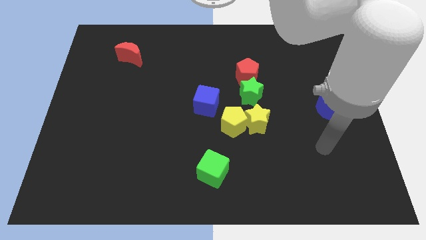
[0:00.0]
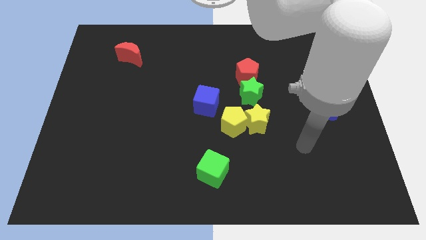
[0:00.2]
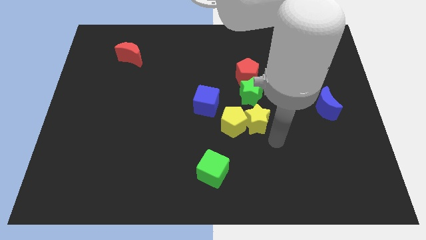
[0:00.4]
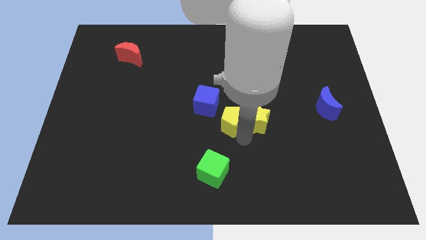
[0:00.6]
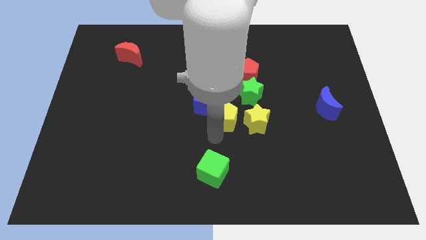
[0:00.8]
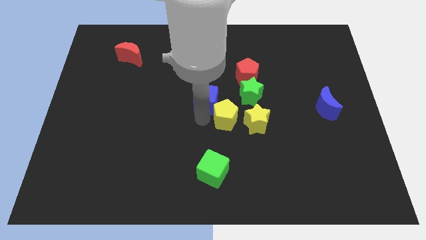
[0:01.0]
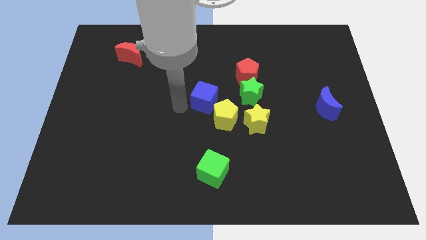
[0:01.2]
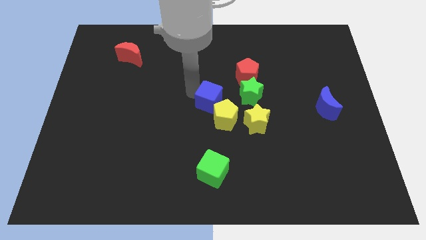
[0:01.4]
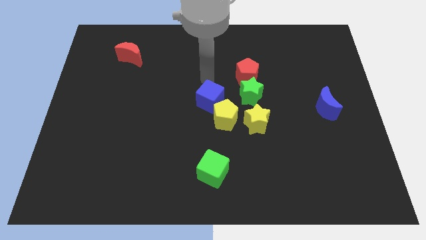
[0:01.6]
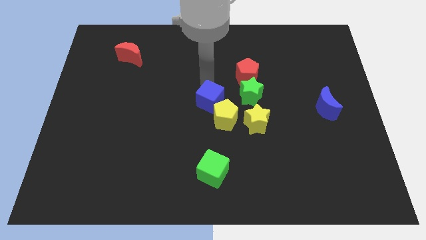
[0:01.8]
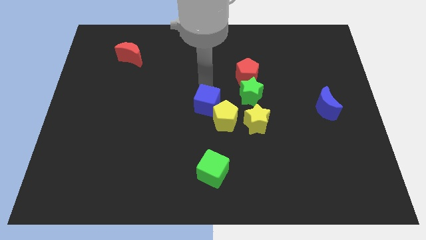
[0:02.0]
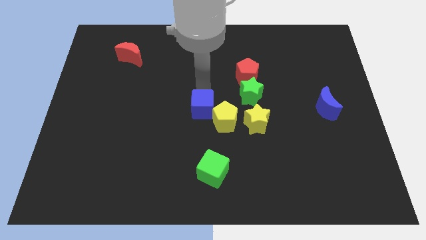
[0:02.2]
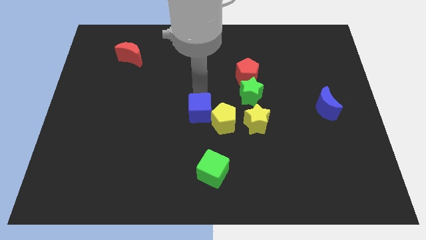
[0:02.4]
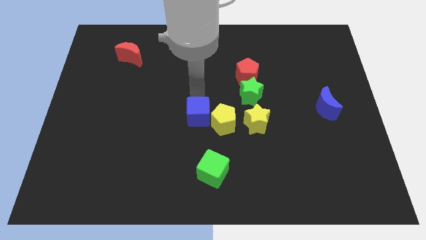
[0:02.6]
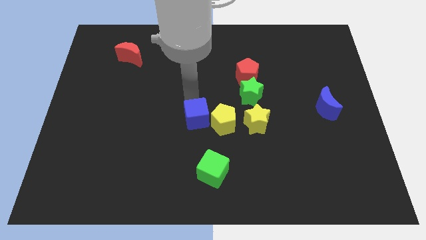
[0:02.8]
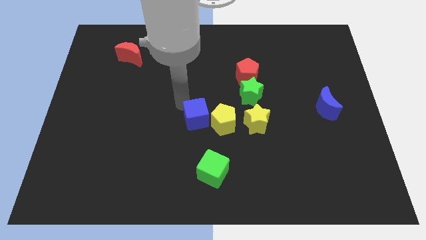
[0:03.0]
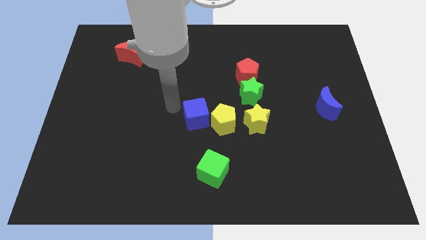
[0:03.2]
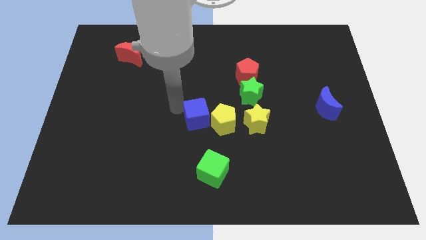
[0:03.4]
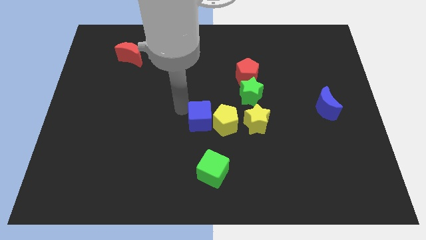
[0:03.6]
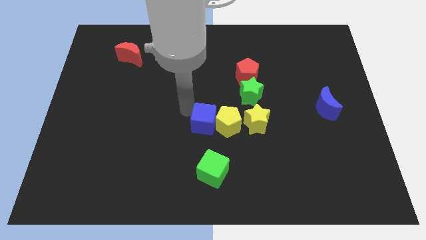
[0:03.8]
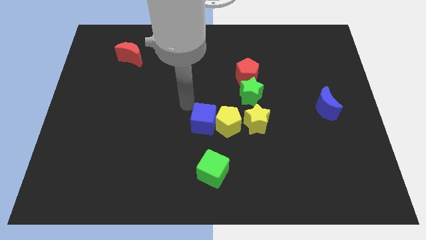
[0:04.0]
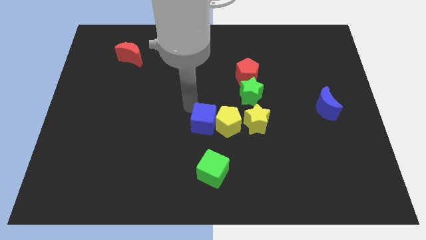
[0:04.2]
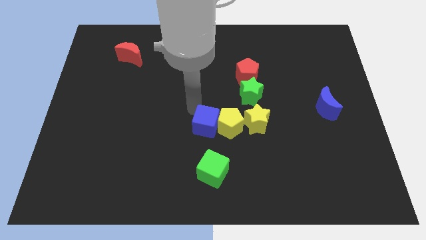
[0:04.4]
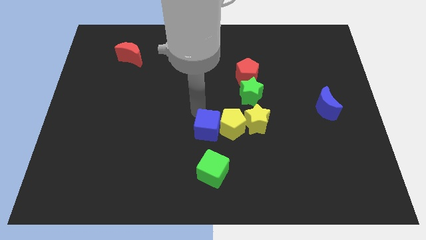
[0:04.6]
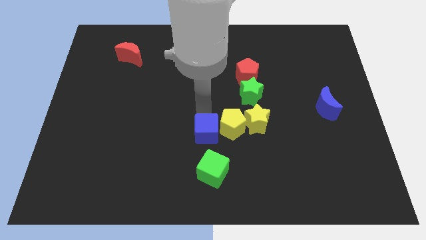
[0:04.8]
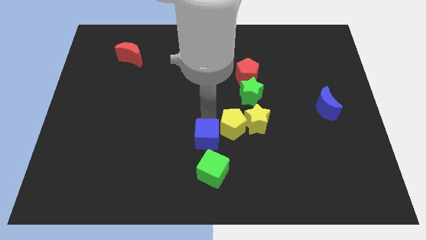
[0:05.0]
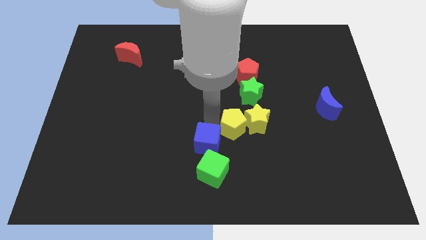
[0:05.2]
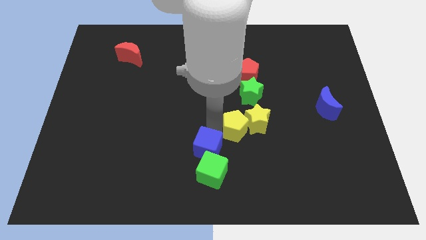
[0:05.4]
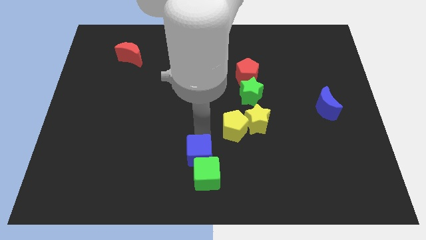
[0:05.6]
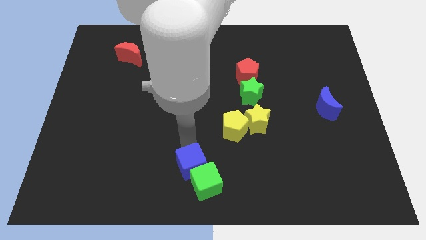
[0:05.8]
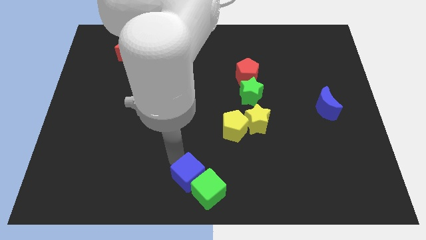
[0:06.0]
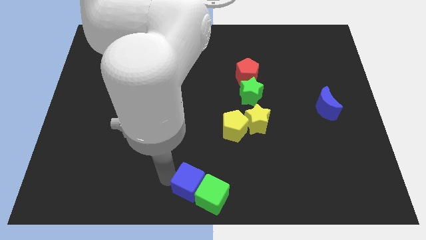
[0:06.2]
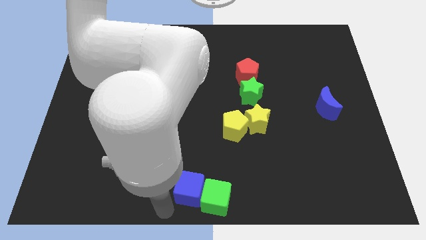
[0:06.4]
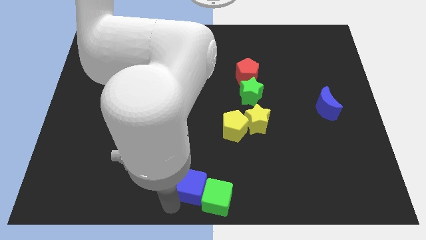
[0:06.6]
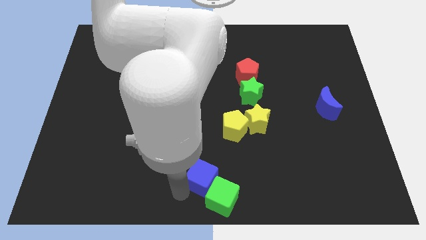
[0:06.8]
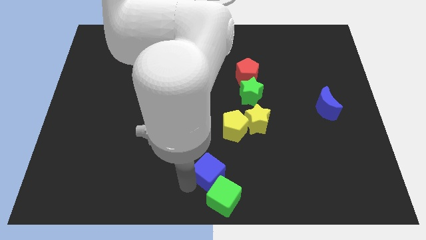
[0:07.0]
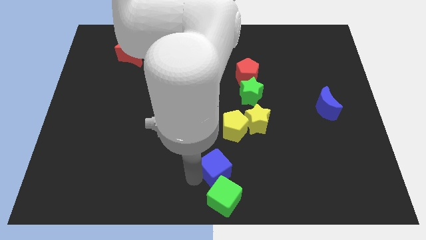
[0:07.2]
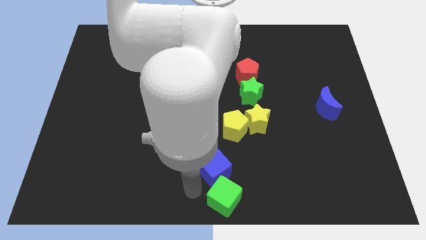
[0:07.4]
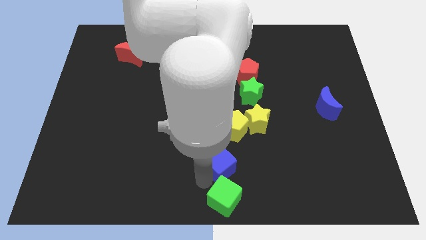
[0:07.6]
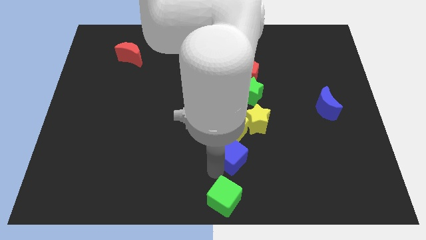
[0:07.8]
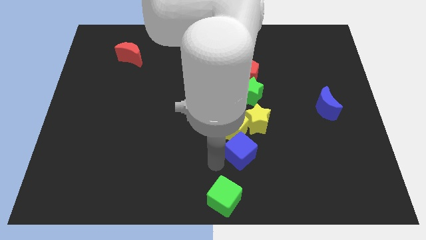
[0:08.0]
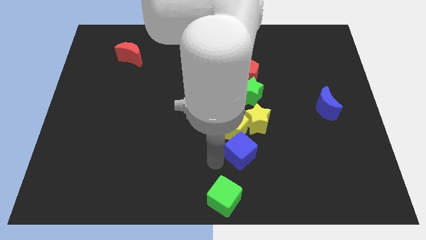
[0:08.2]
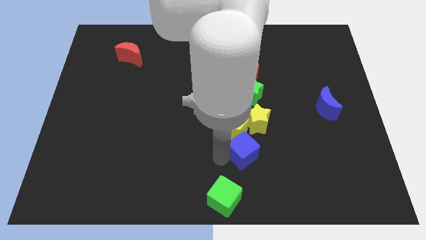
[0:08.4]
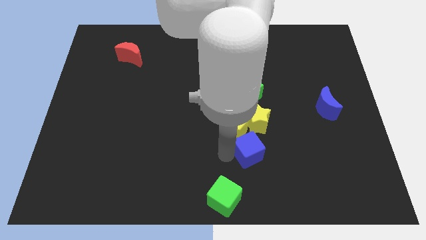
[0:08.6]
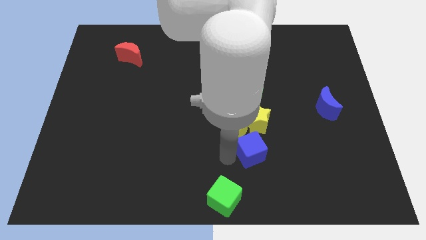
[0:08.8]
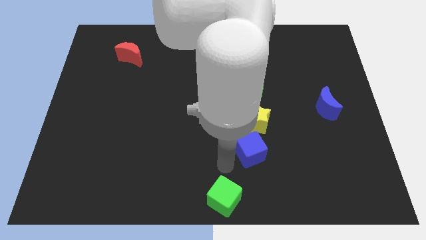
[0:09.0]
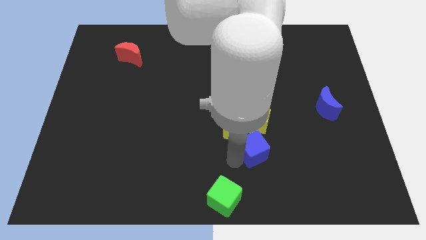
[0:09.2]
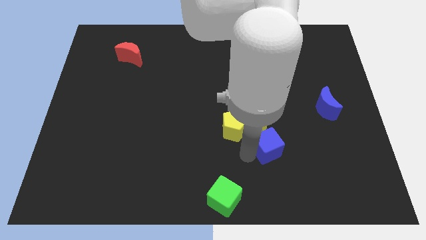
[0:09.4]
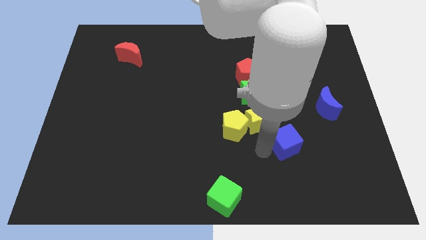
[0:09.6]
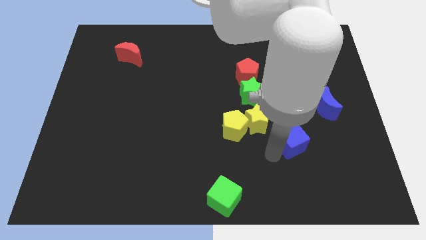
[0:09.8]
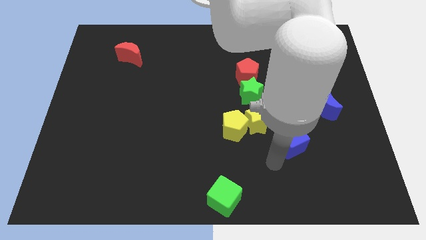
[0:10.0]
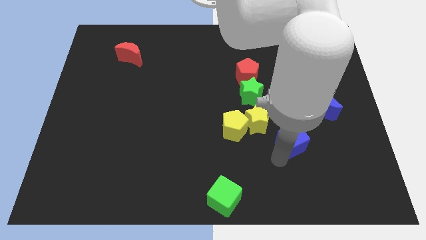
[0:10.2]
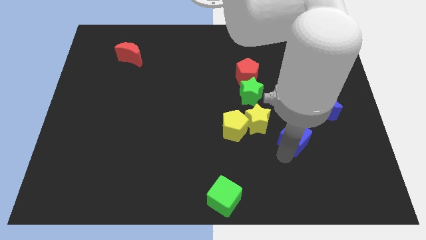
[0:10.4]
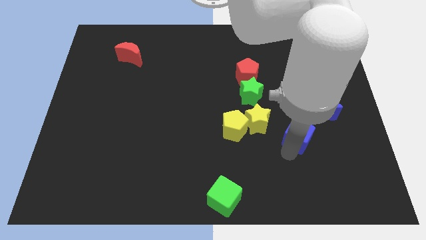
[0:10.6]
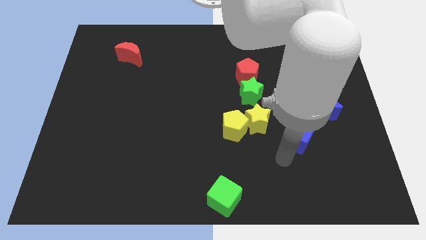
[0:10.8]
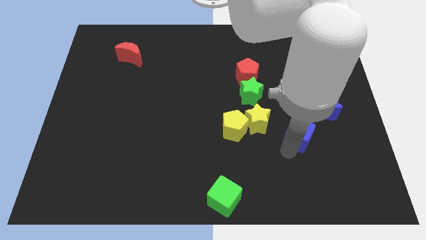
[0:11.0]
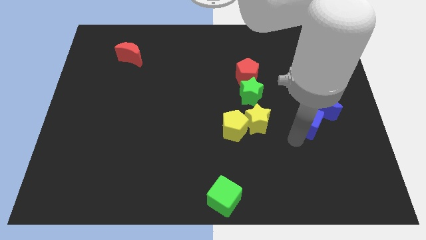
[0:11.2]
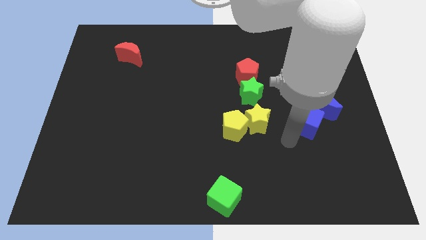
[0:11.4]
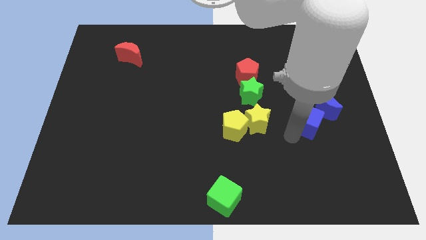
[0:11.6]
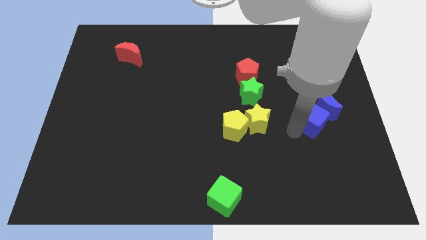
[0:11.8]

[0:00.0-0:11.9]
move the blue cube close to the blue moon

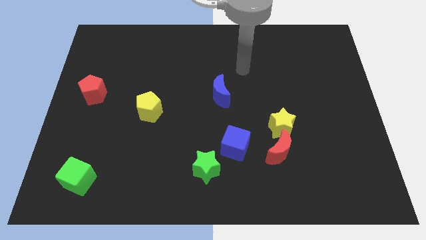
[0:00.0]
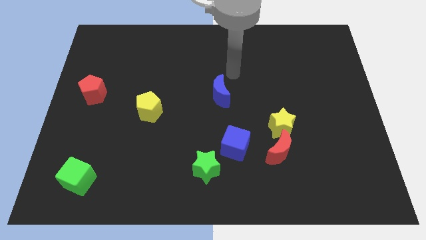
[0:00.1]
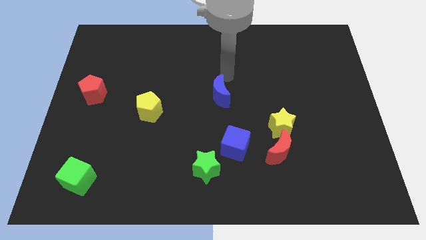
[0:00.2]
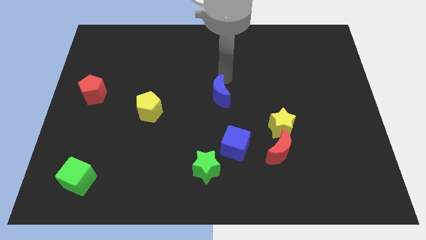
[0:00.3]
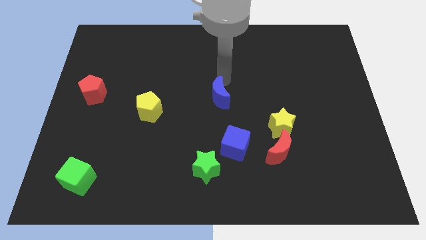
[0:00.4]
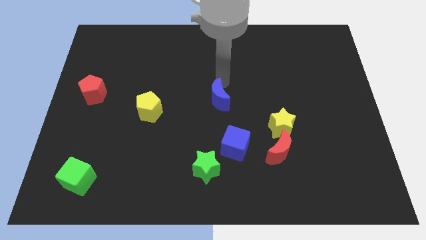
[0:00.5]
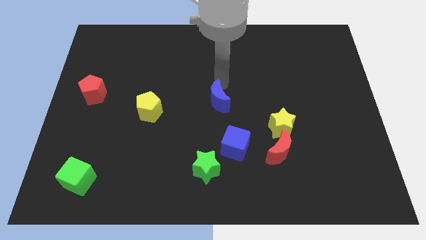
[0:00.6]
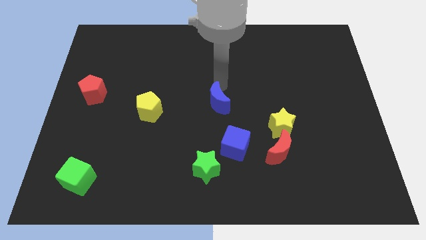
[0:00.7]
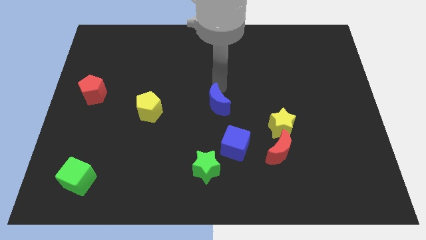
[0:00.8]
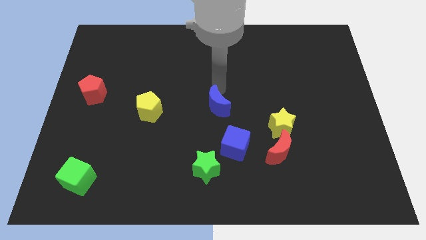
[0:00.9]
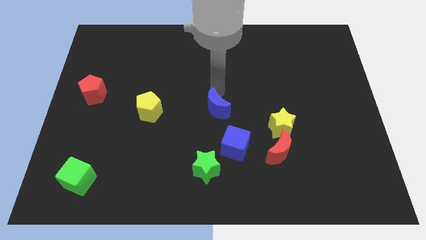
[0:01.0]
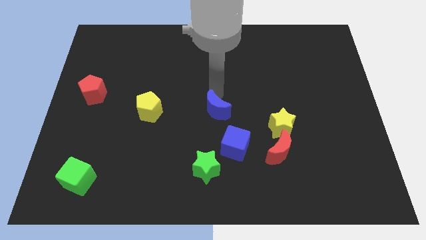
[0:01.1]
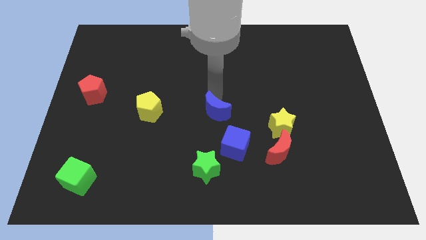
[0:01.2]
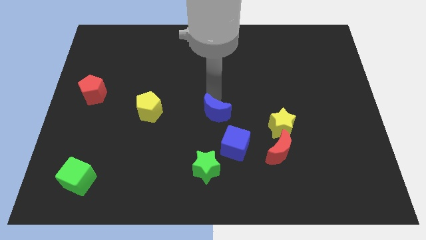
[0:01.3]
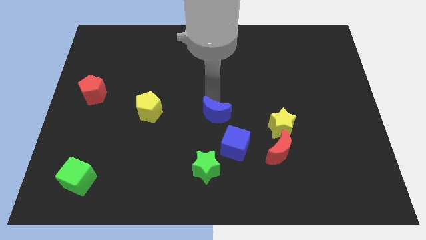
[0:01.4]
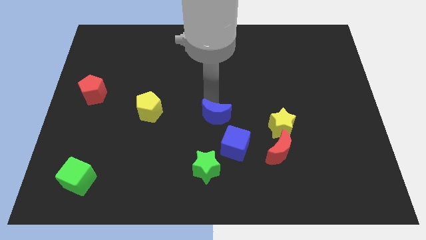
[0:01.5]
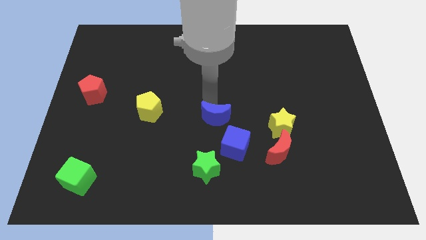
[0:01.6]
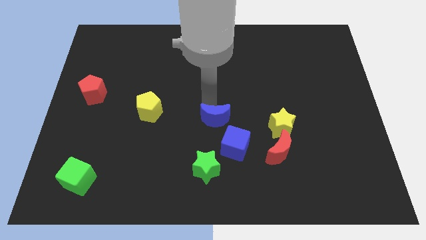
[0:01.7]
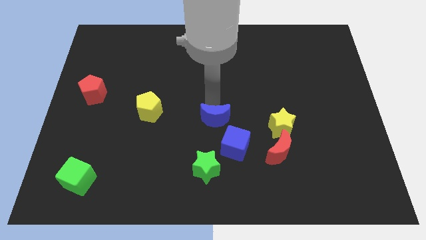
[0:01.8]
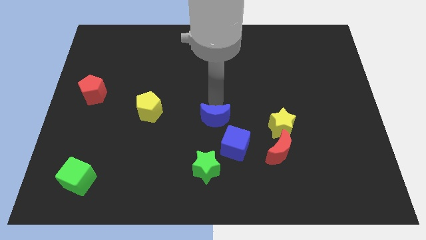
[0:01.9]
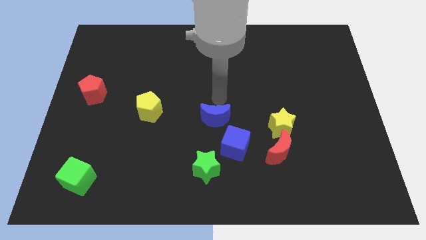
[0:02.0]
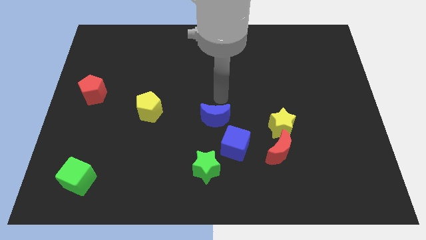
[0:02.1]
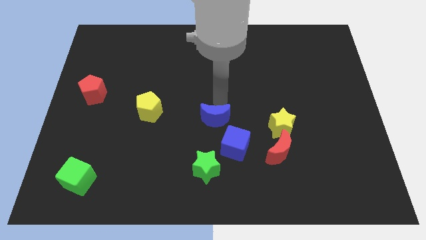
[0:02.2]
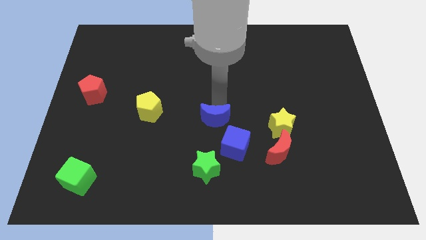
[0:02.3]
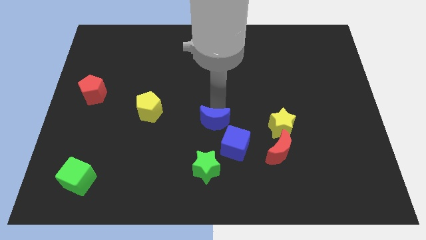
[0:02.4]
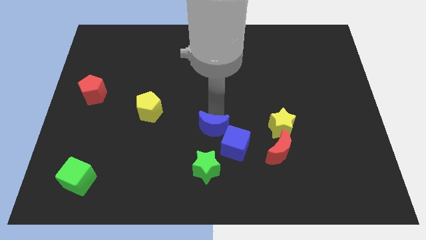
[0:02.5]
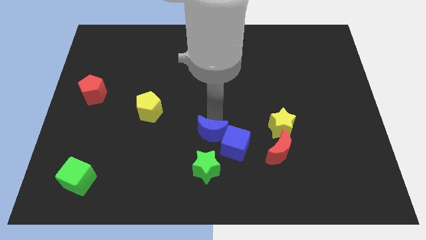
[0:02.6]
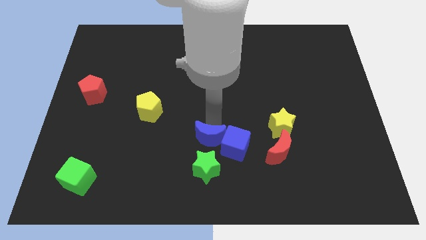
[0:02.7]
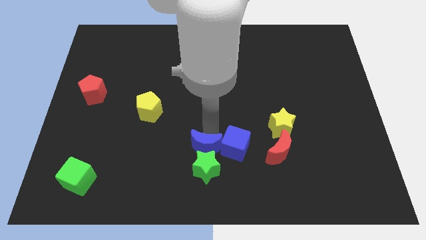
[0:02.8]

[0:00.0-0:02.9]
move the blue moon close to the green star
